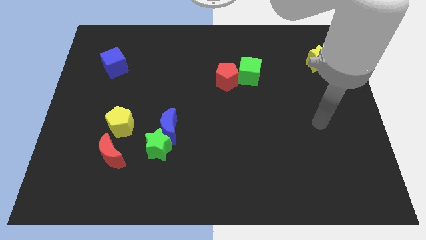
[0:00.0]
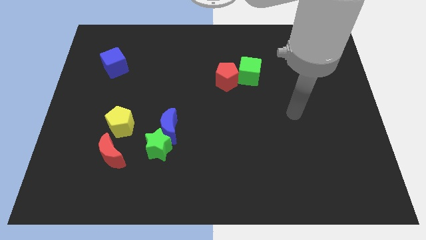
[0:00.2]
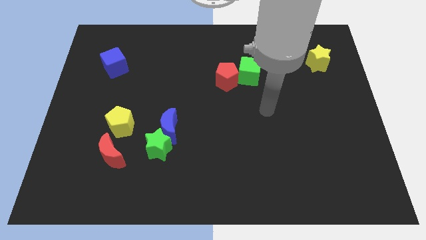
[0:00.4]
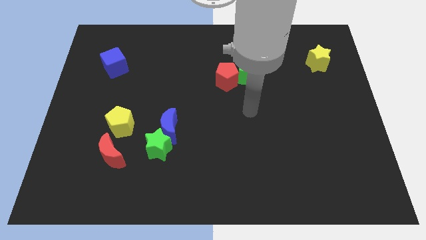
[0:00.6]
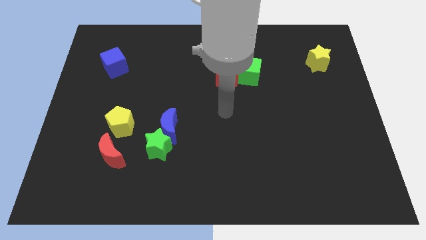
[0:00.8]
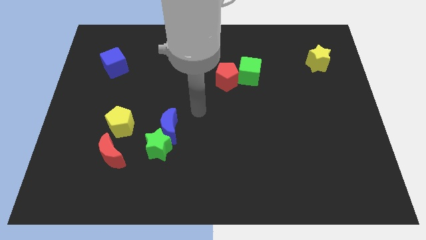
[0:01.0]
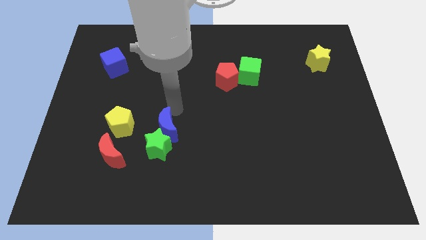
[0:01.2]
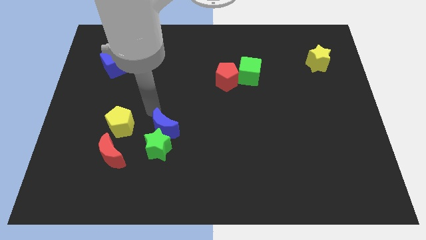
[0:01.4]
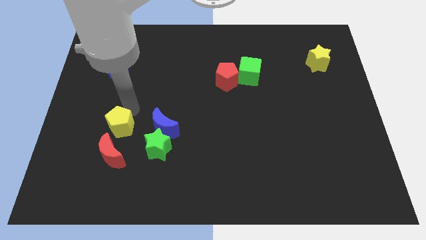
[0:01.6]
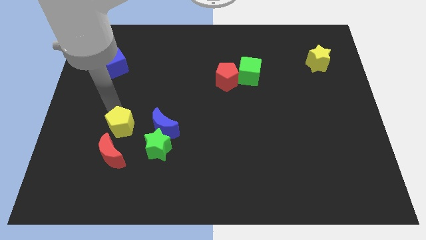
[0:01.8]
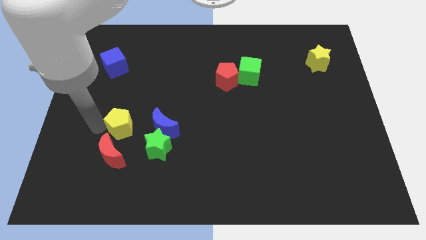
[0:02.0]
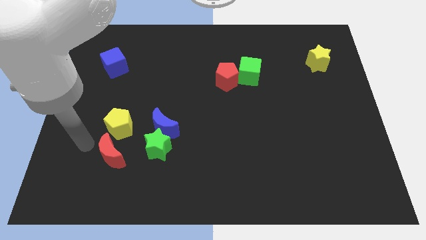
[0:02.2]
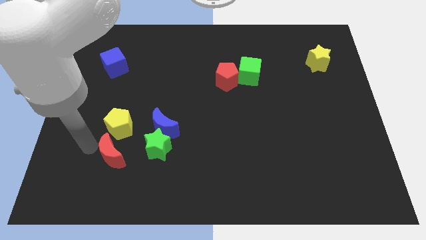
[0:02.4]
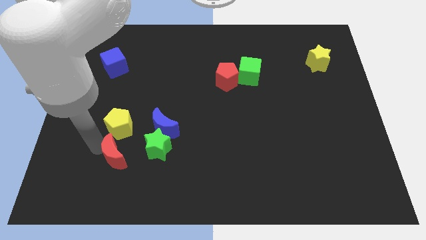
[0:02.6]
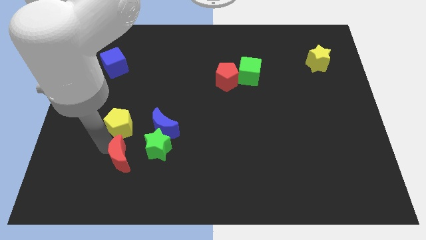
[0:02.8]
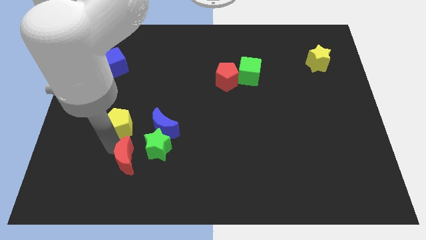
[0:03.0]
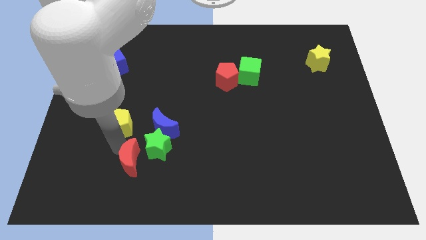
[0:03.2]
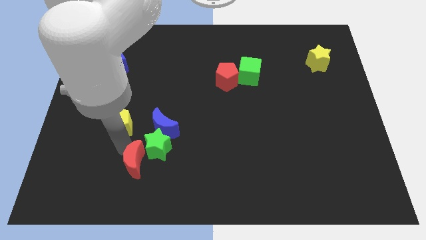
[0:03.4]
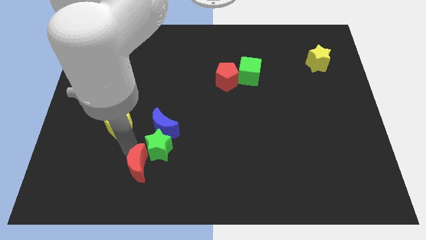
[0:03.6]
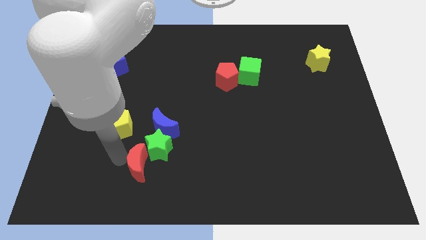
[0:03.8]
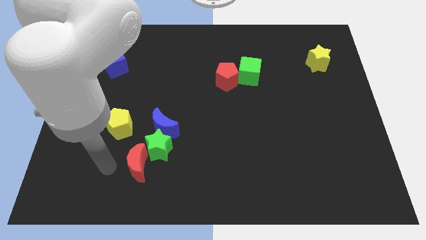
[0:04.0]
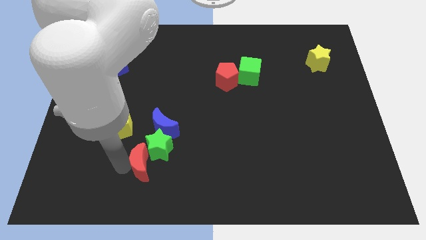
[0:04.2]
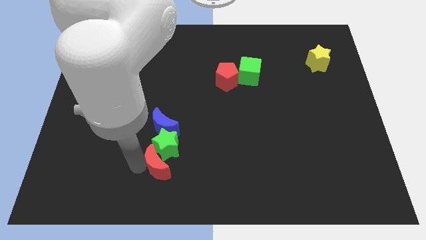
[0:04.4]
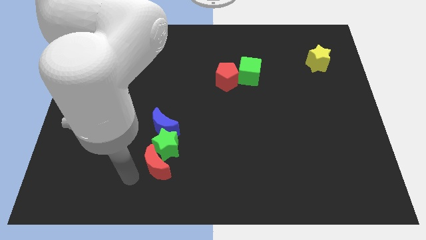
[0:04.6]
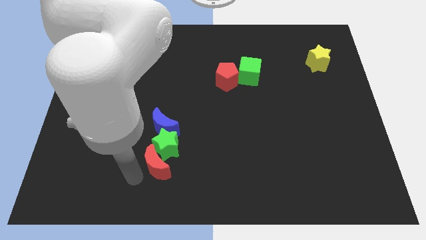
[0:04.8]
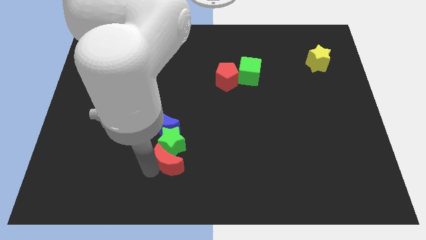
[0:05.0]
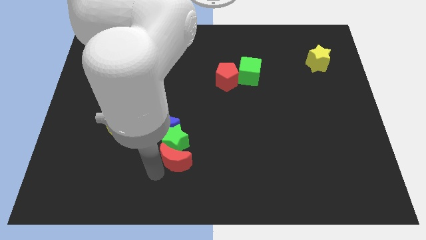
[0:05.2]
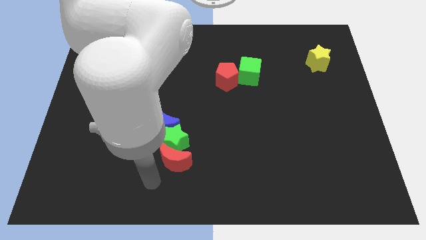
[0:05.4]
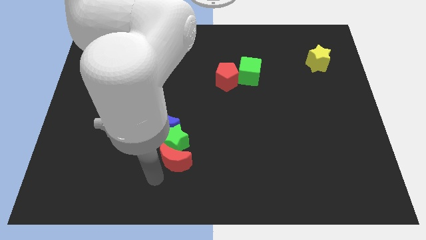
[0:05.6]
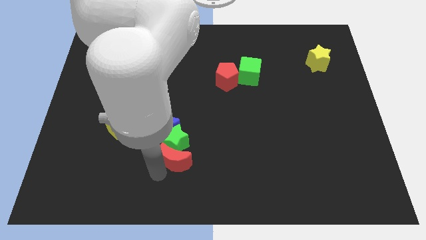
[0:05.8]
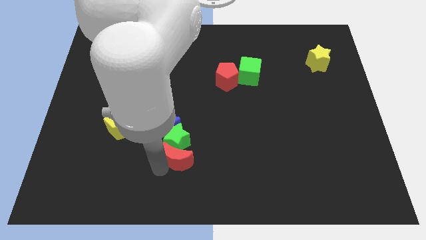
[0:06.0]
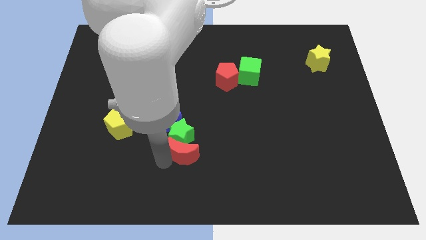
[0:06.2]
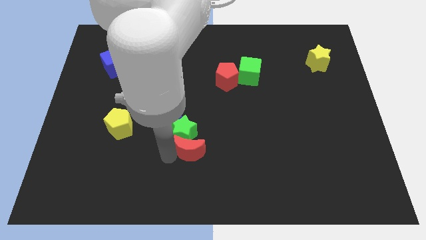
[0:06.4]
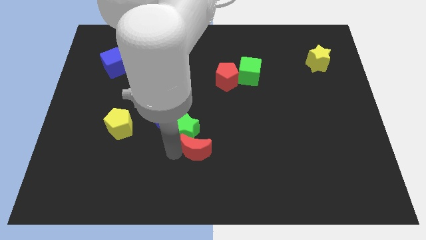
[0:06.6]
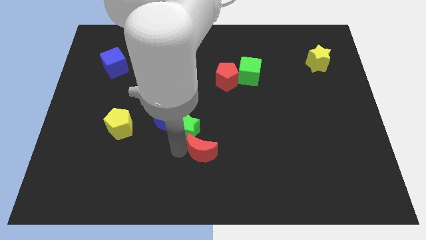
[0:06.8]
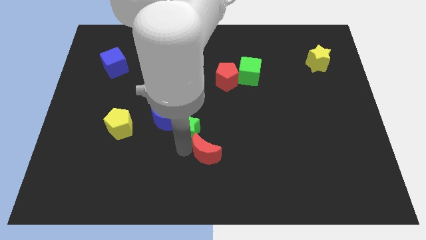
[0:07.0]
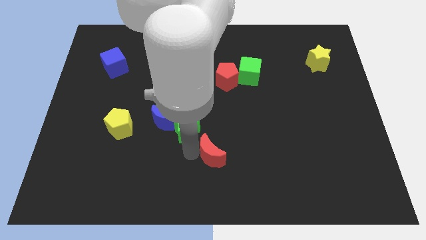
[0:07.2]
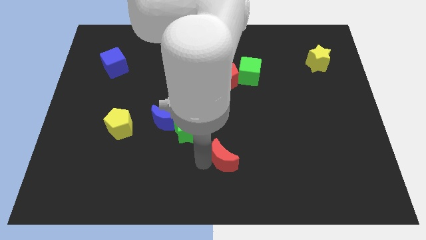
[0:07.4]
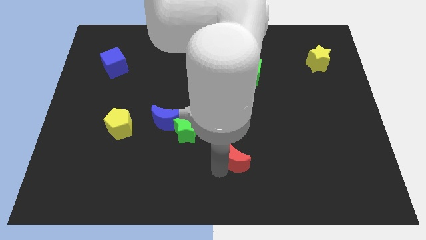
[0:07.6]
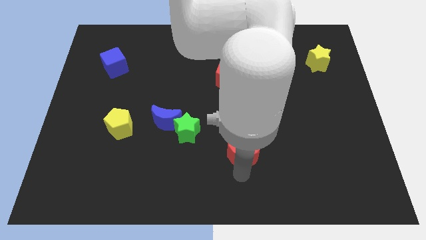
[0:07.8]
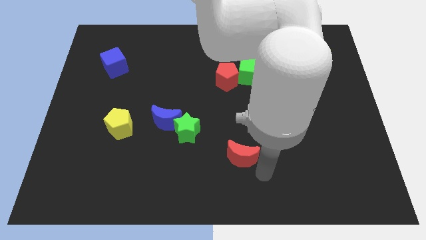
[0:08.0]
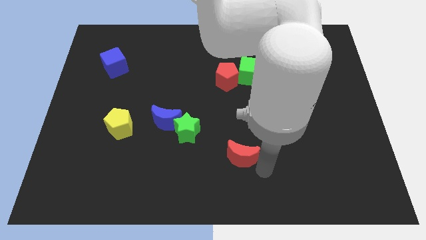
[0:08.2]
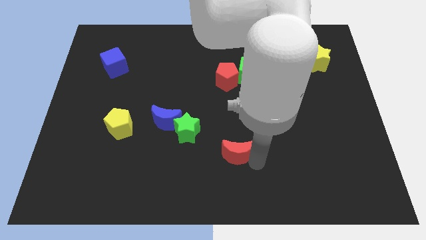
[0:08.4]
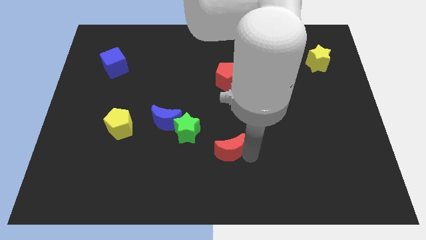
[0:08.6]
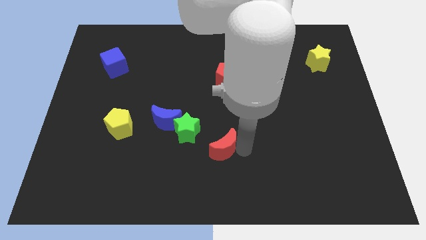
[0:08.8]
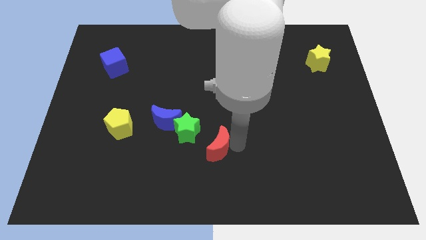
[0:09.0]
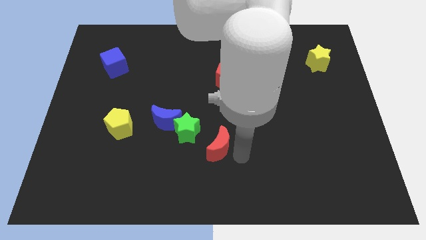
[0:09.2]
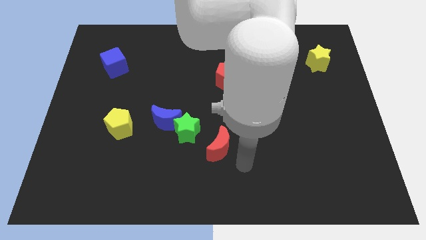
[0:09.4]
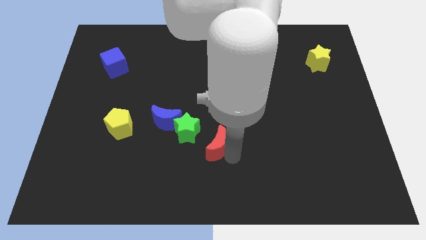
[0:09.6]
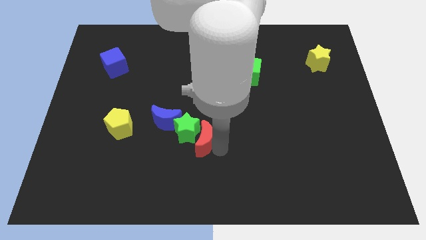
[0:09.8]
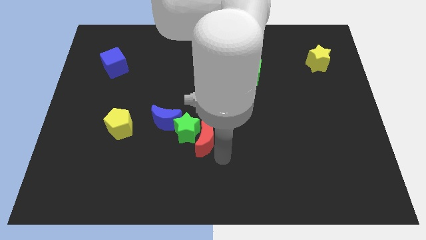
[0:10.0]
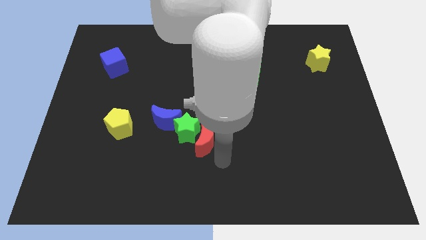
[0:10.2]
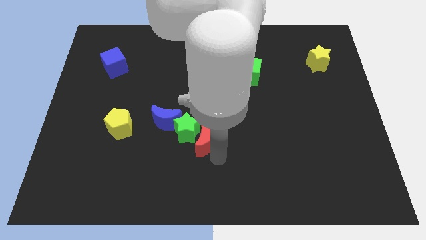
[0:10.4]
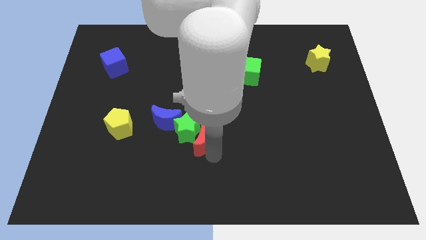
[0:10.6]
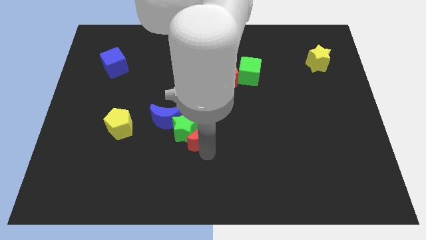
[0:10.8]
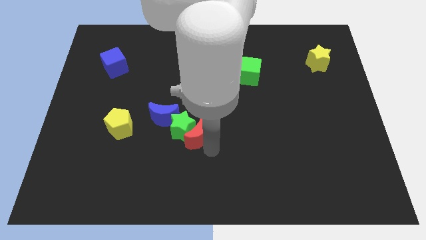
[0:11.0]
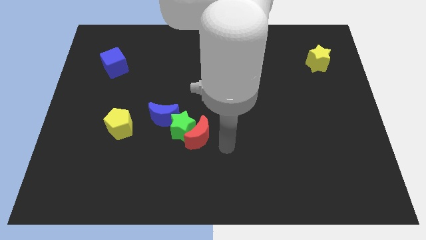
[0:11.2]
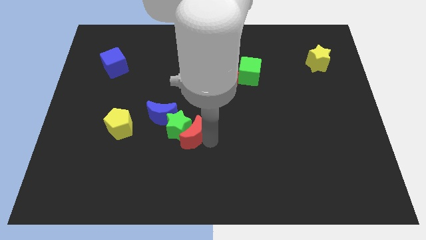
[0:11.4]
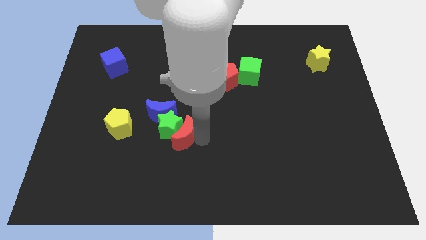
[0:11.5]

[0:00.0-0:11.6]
slide the red moon right of the yellow pentagon
